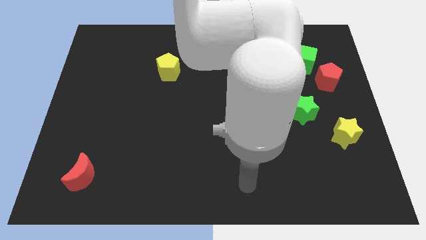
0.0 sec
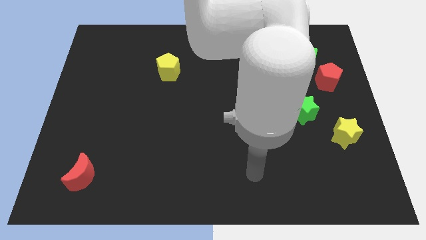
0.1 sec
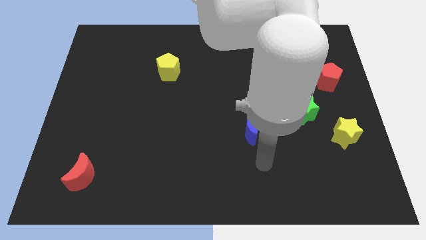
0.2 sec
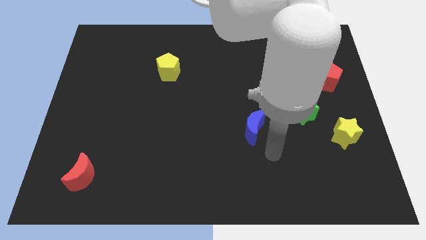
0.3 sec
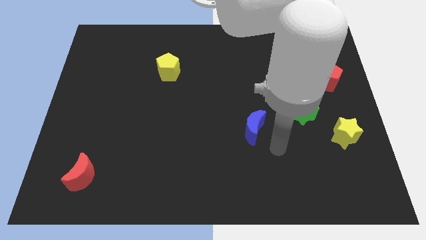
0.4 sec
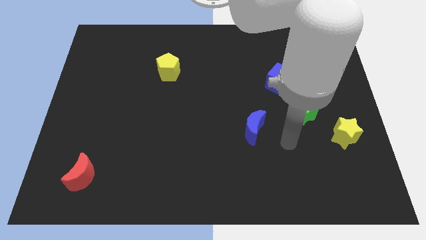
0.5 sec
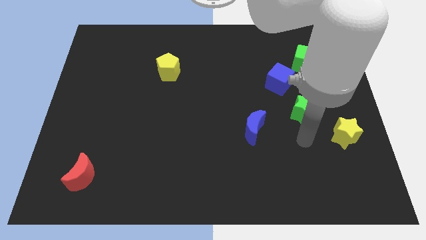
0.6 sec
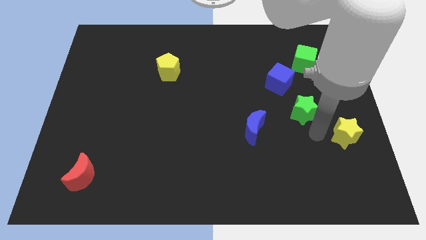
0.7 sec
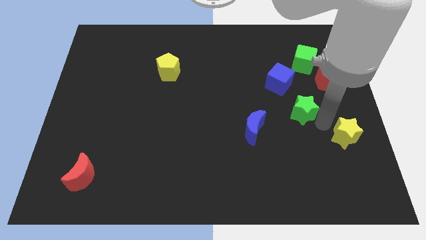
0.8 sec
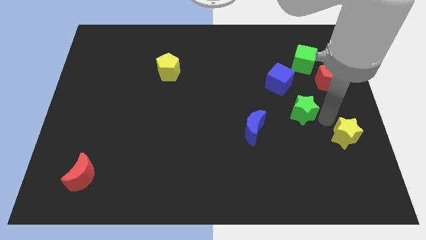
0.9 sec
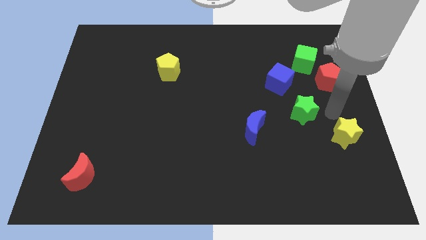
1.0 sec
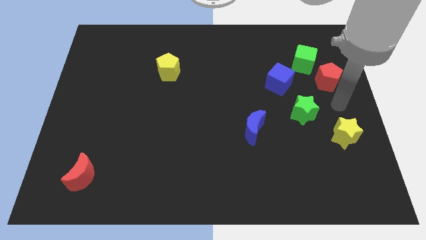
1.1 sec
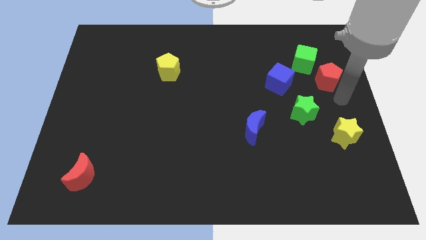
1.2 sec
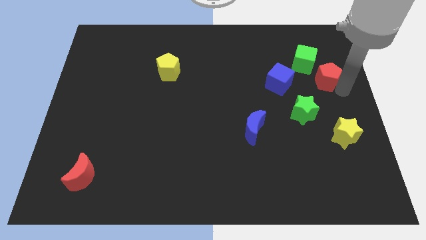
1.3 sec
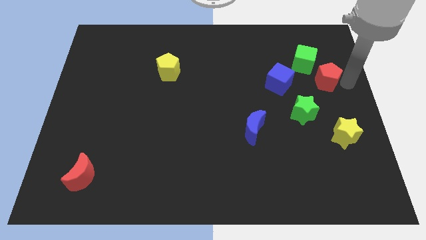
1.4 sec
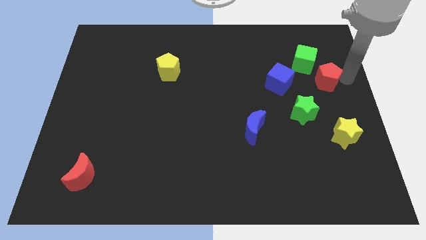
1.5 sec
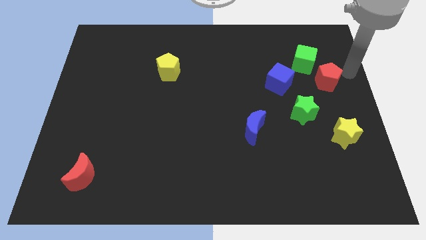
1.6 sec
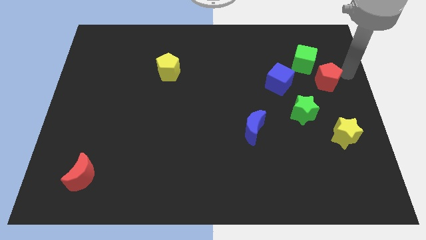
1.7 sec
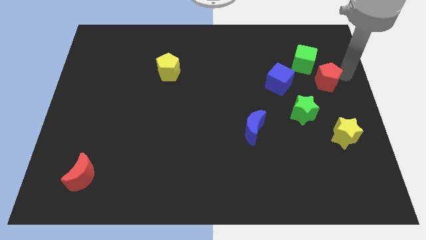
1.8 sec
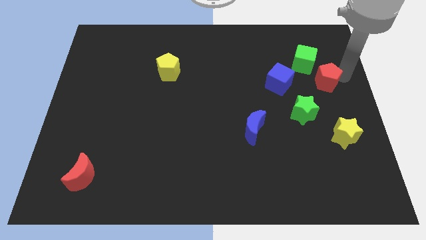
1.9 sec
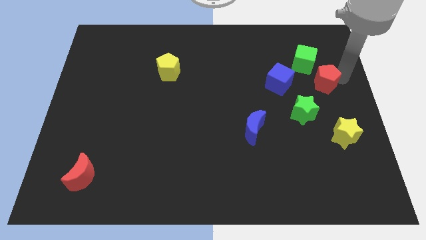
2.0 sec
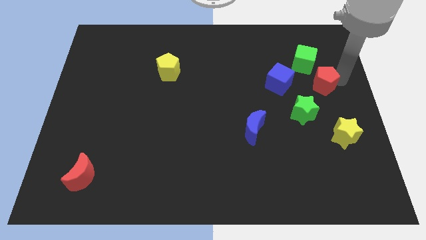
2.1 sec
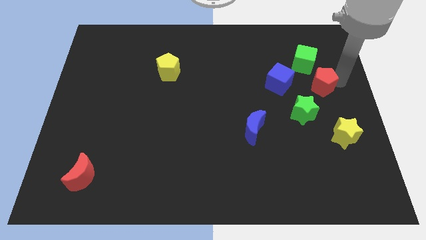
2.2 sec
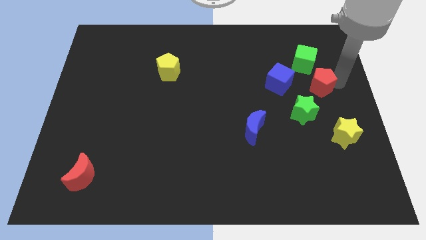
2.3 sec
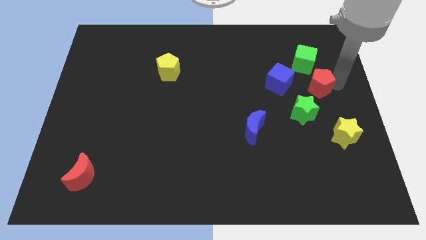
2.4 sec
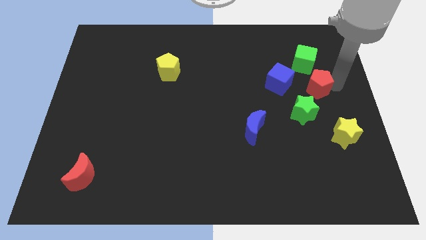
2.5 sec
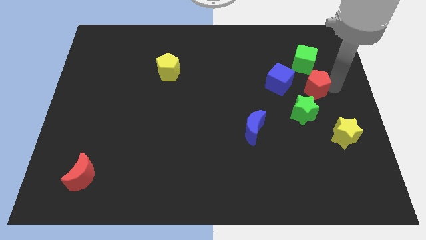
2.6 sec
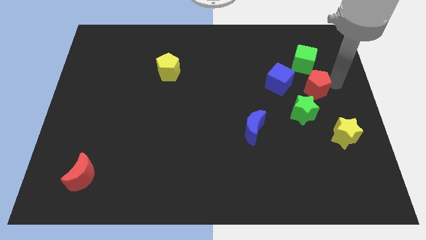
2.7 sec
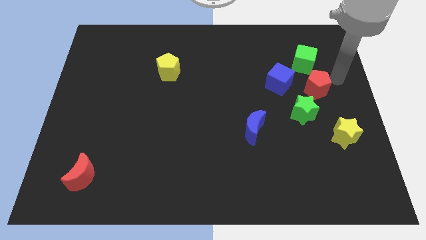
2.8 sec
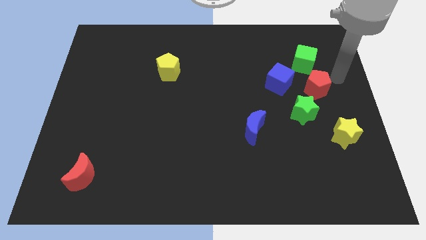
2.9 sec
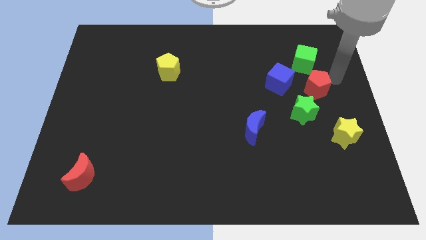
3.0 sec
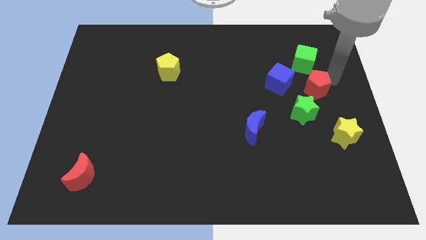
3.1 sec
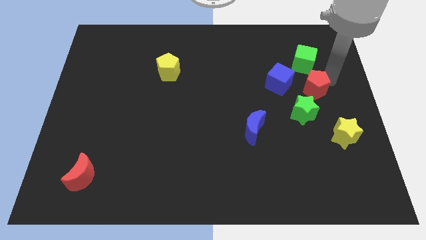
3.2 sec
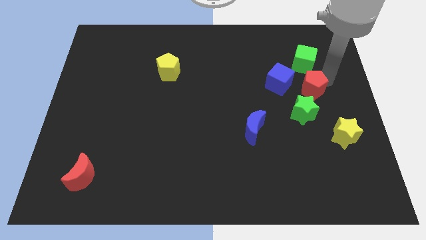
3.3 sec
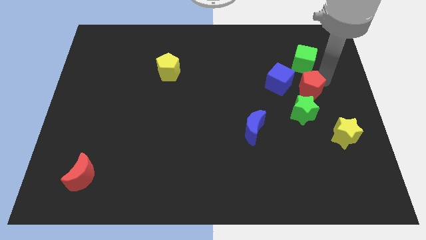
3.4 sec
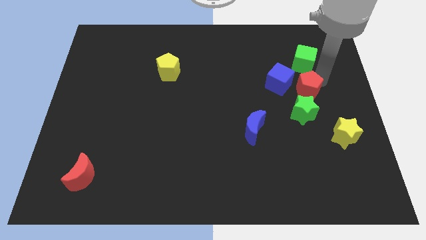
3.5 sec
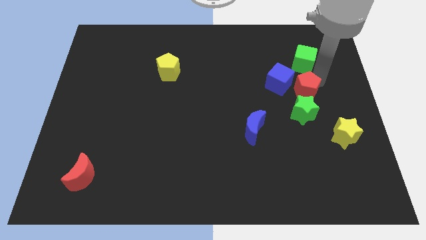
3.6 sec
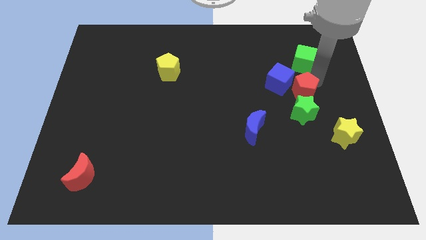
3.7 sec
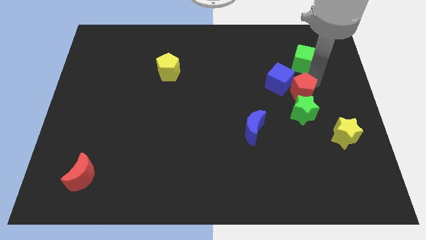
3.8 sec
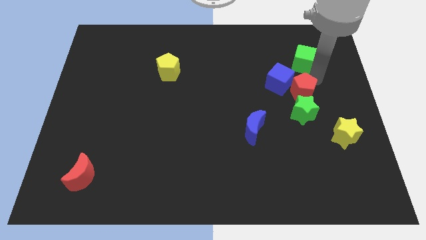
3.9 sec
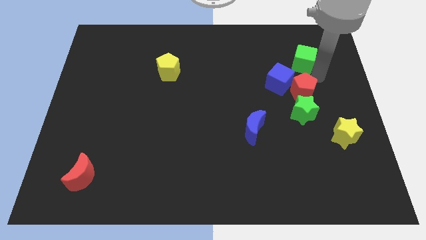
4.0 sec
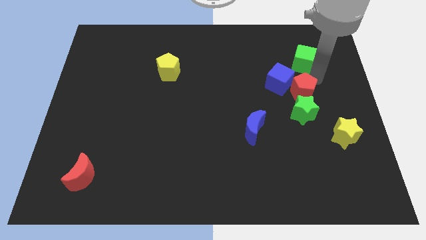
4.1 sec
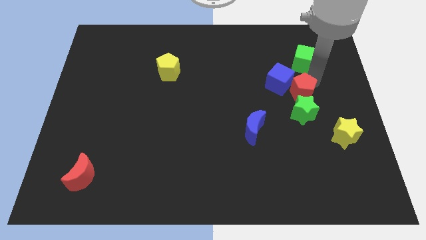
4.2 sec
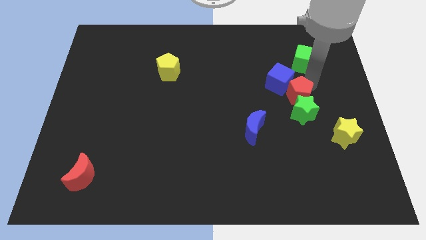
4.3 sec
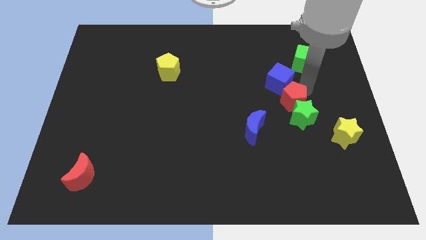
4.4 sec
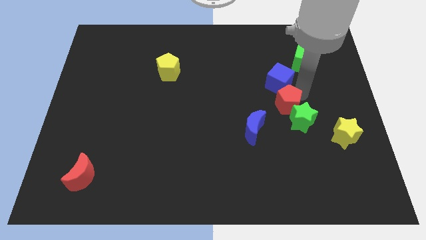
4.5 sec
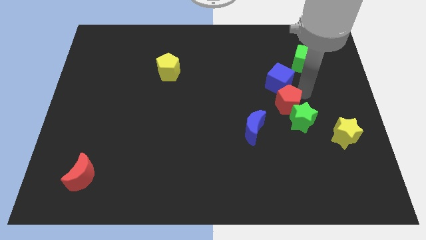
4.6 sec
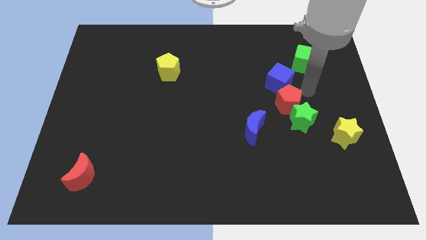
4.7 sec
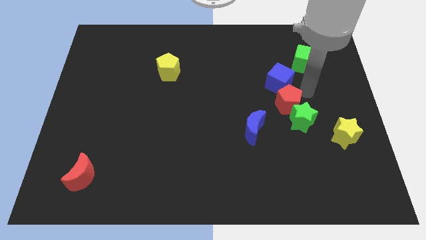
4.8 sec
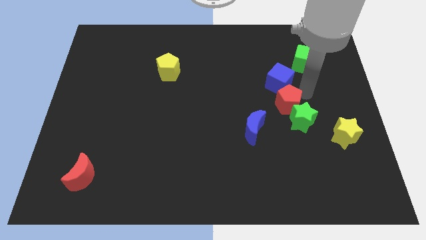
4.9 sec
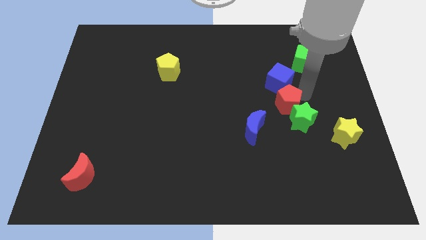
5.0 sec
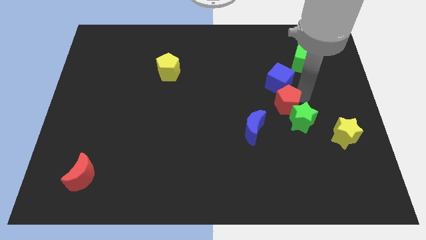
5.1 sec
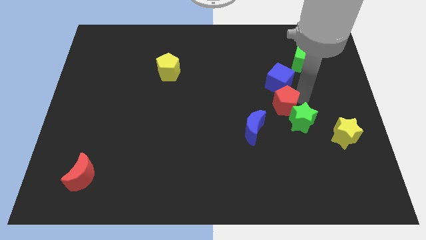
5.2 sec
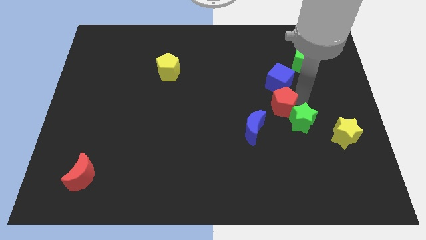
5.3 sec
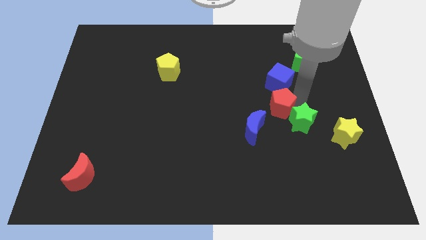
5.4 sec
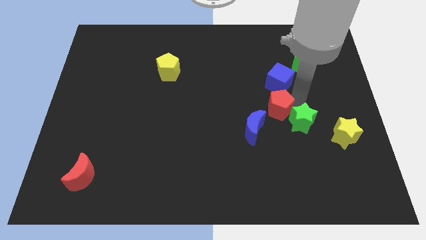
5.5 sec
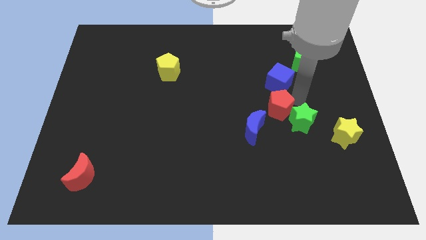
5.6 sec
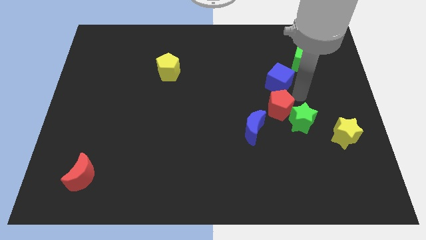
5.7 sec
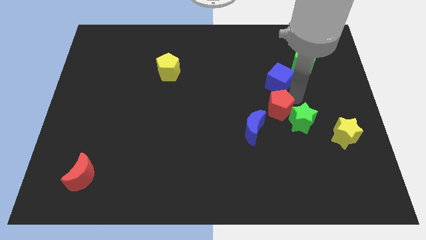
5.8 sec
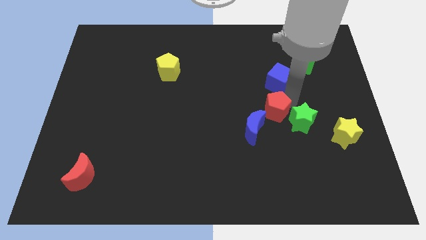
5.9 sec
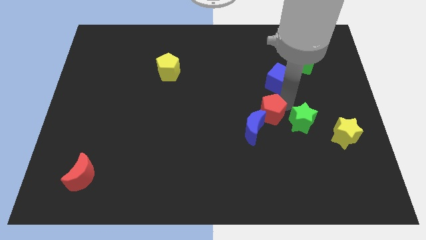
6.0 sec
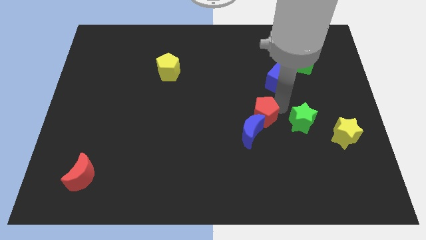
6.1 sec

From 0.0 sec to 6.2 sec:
push the red pentagon towards the blue moon

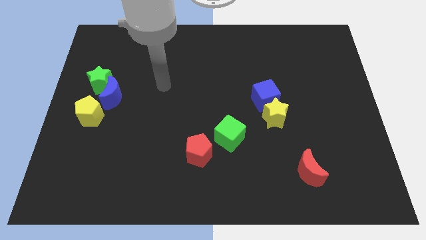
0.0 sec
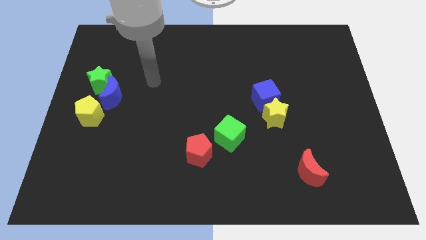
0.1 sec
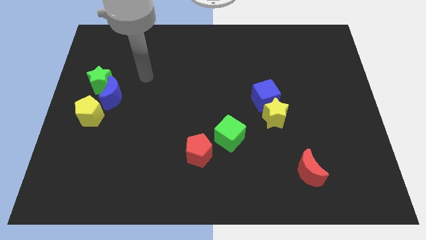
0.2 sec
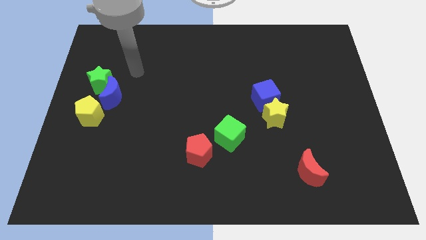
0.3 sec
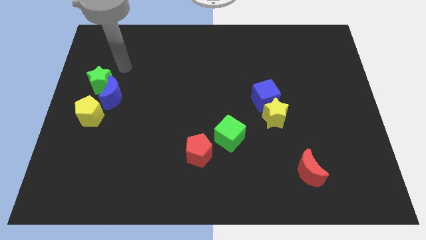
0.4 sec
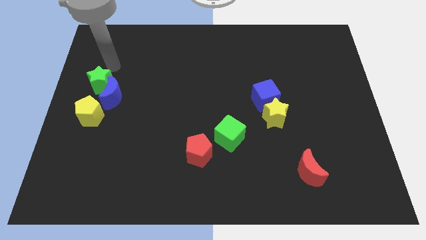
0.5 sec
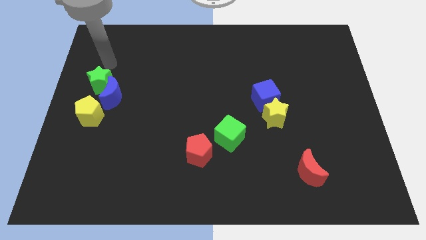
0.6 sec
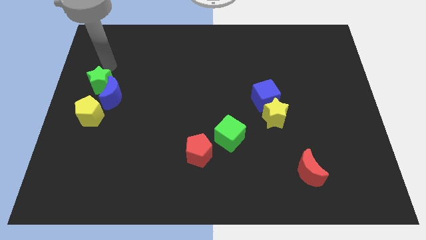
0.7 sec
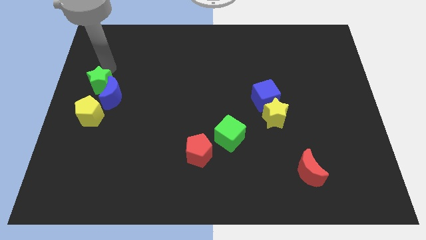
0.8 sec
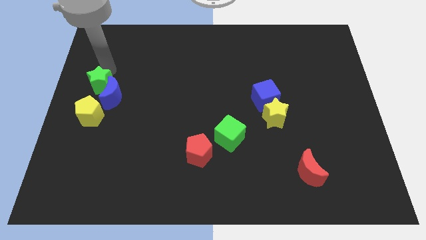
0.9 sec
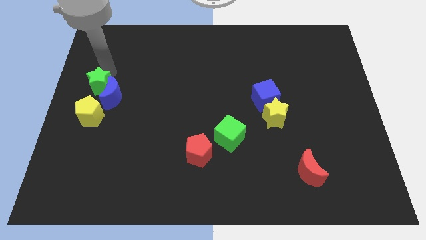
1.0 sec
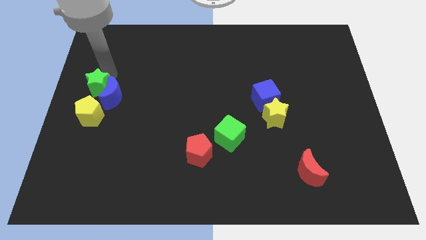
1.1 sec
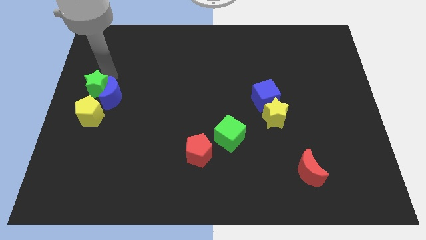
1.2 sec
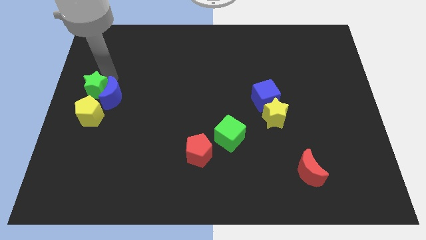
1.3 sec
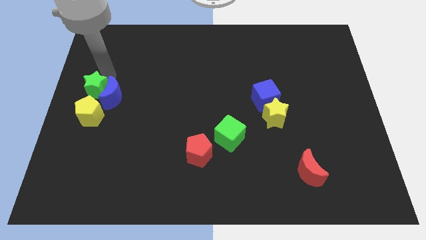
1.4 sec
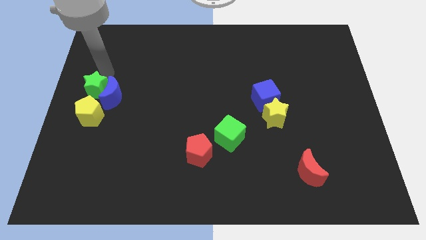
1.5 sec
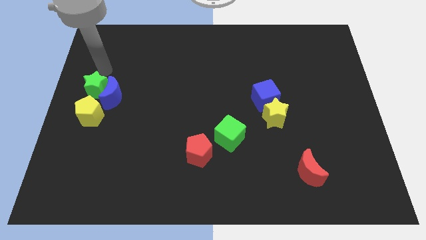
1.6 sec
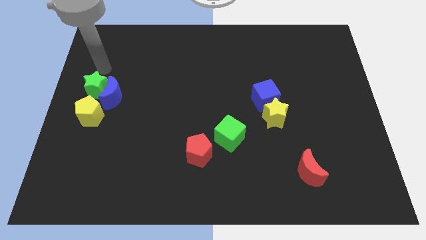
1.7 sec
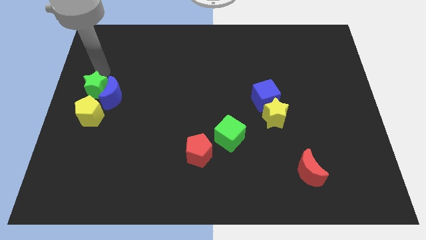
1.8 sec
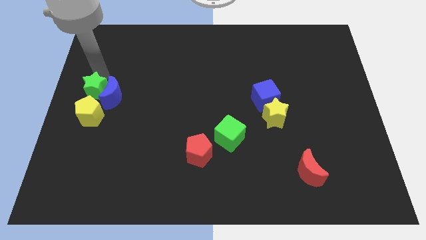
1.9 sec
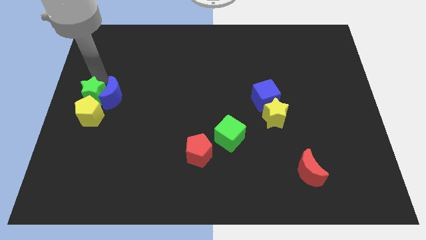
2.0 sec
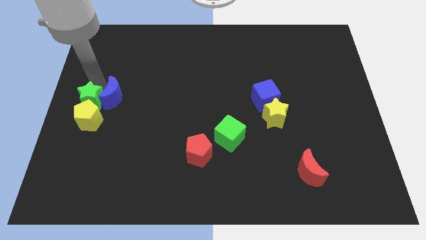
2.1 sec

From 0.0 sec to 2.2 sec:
push the green star close to the yellow pentagon
